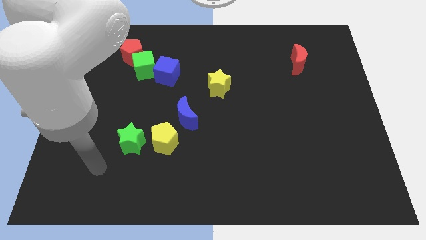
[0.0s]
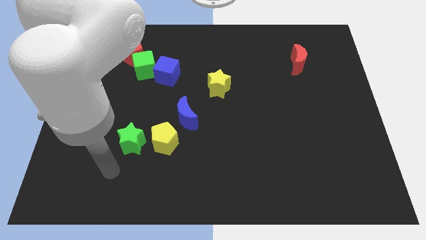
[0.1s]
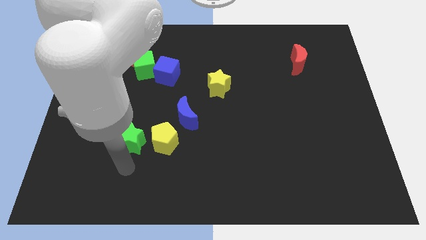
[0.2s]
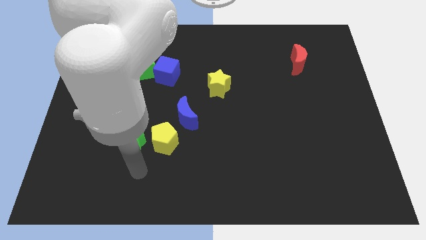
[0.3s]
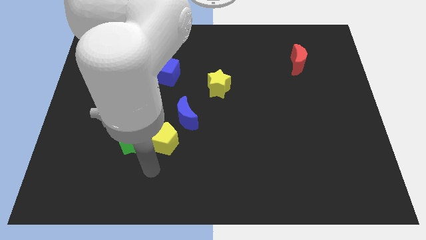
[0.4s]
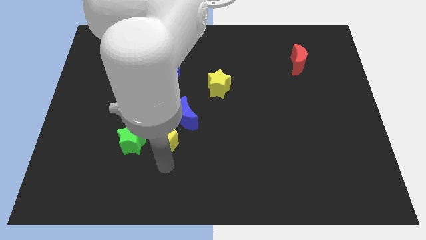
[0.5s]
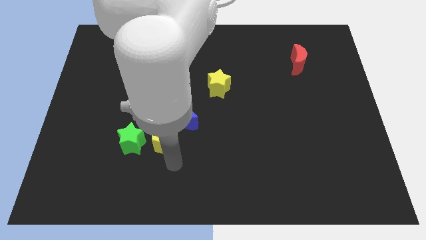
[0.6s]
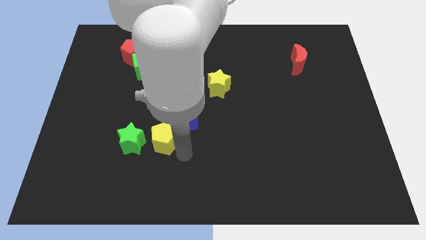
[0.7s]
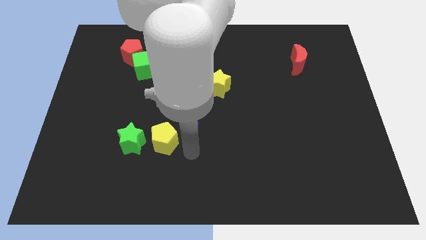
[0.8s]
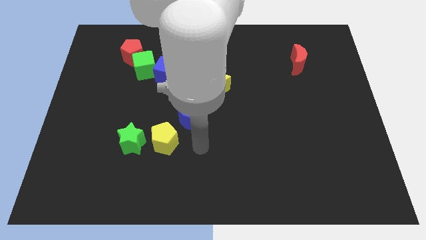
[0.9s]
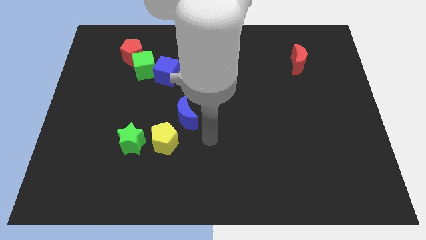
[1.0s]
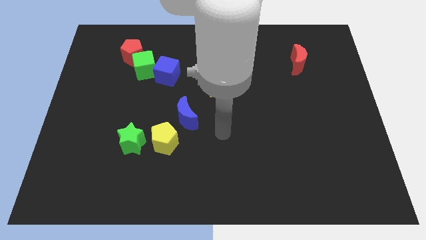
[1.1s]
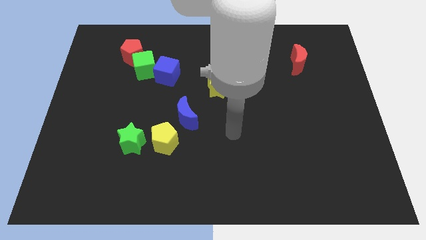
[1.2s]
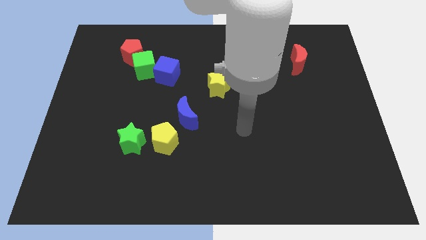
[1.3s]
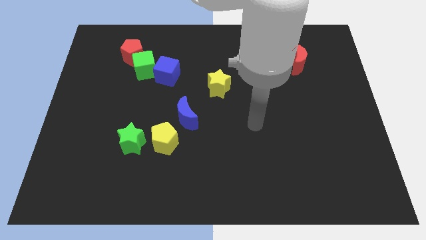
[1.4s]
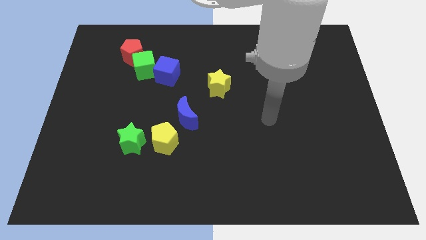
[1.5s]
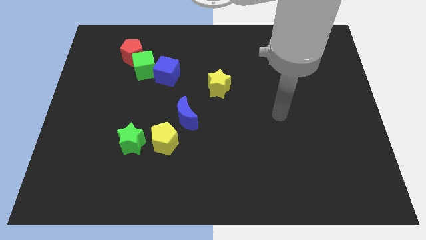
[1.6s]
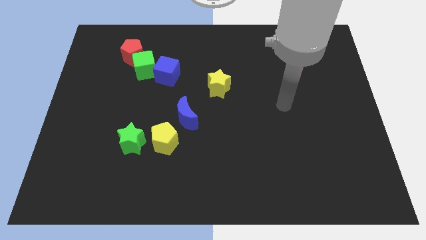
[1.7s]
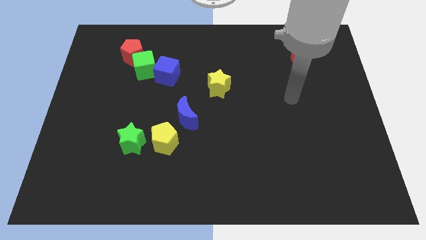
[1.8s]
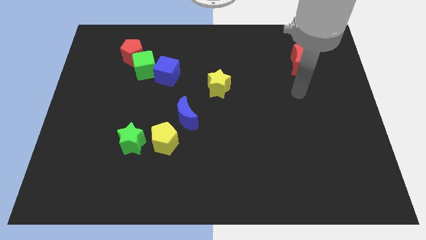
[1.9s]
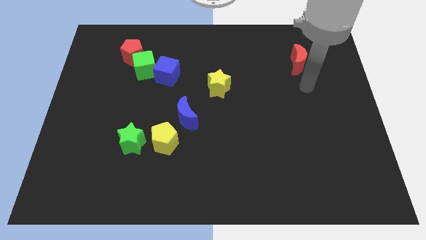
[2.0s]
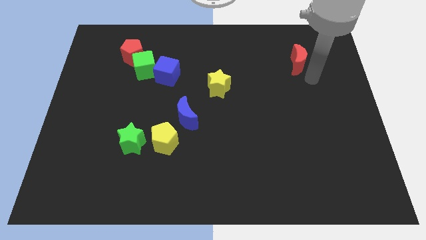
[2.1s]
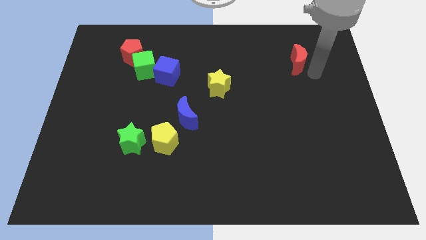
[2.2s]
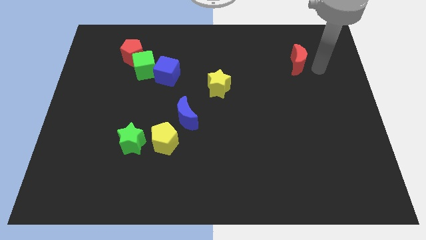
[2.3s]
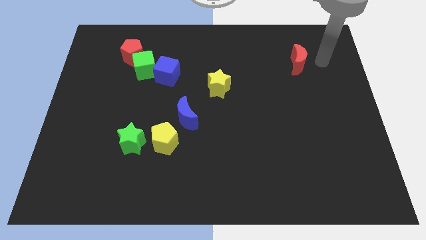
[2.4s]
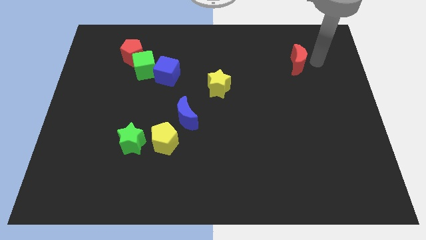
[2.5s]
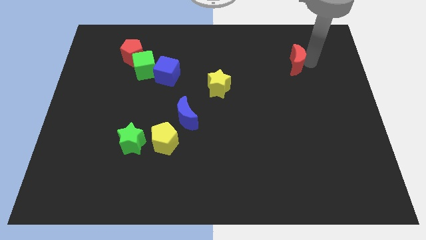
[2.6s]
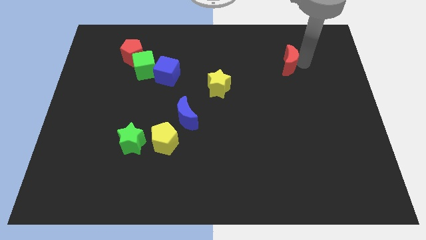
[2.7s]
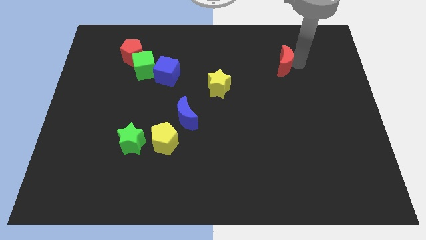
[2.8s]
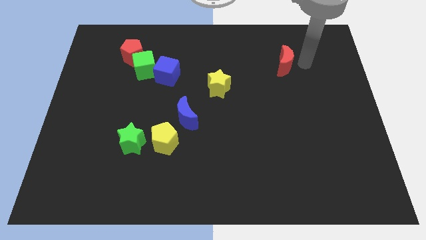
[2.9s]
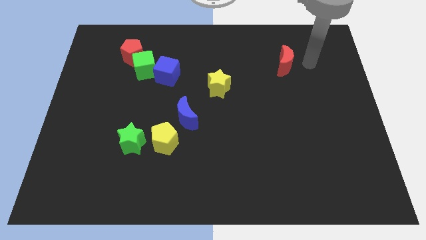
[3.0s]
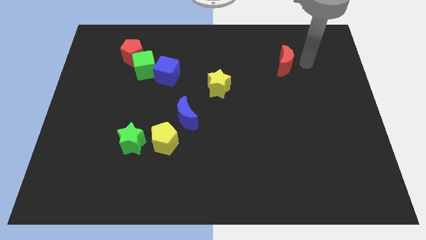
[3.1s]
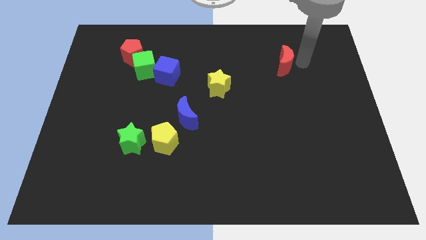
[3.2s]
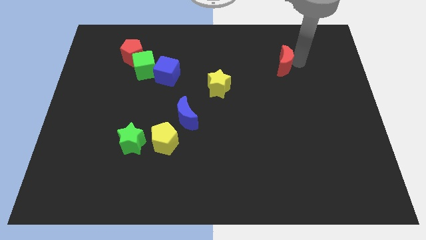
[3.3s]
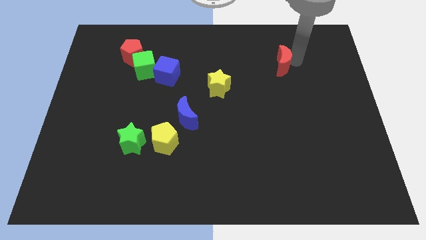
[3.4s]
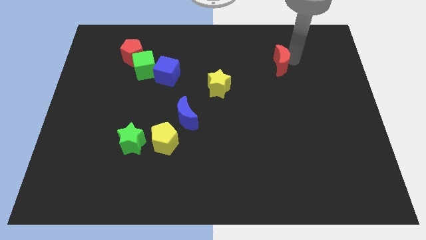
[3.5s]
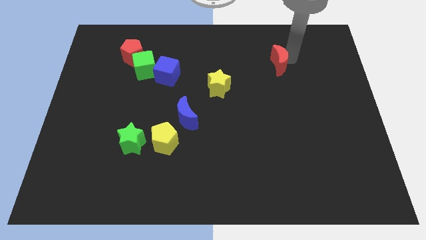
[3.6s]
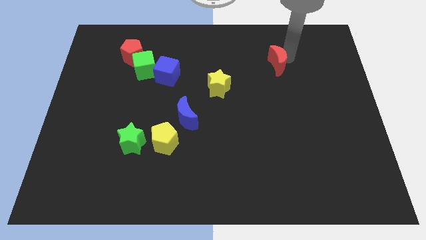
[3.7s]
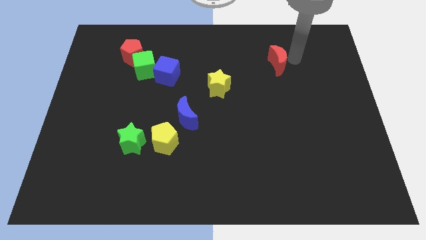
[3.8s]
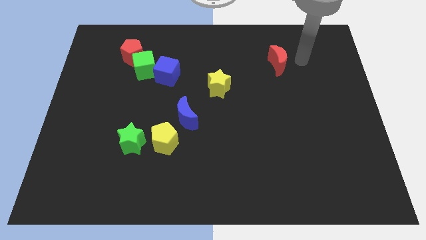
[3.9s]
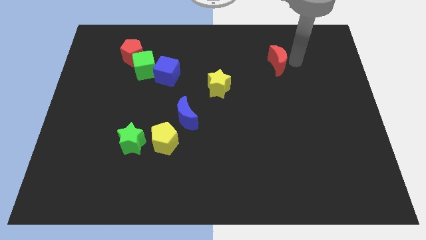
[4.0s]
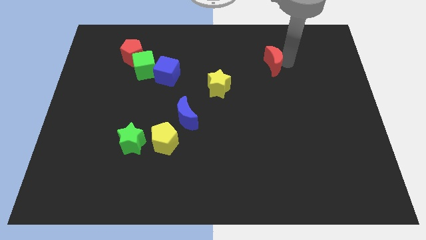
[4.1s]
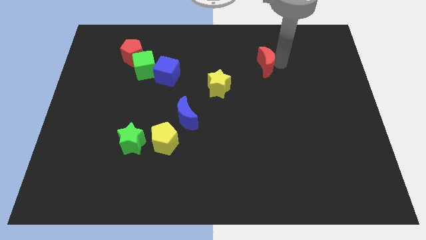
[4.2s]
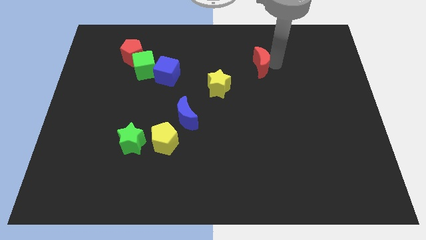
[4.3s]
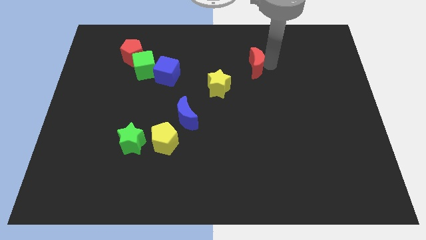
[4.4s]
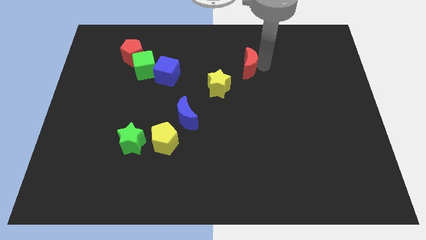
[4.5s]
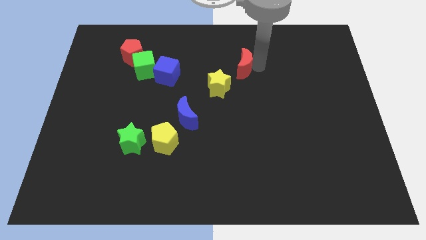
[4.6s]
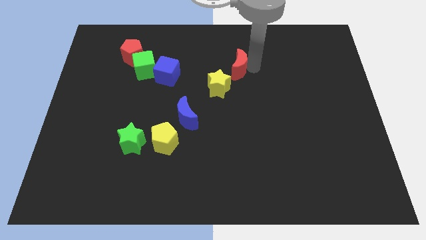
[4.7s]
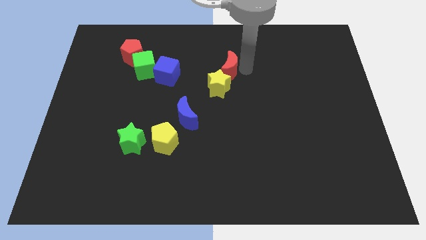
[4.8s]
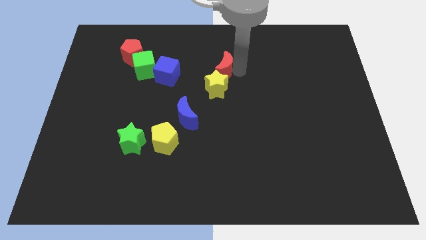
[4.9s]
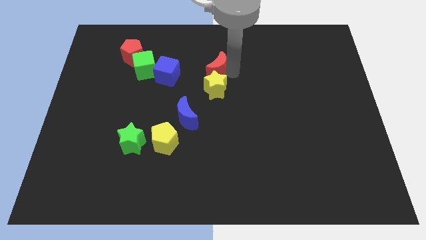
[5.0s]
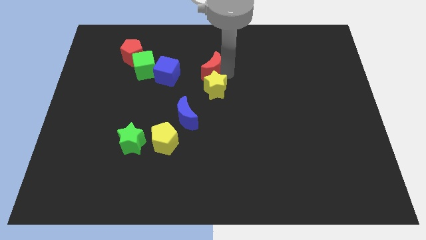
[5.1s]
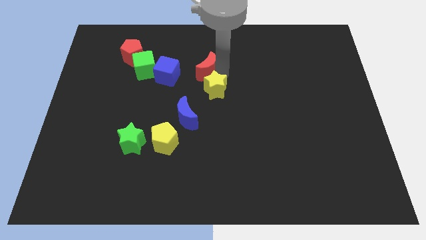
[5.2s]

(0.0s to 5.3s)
push the red moon just right of the green cube

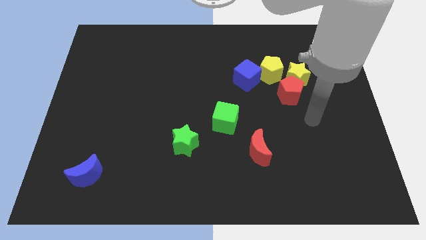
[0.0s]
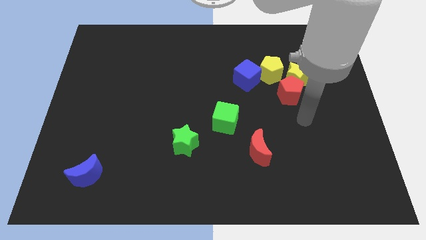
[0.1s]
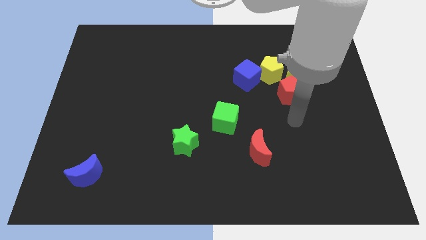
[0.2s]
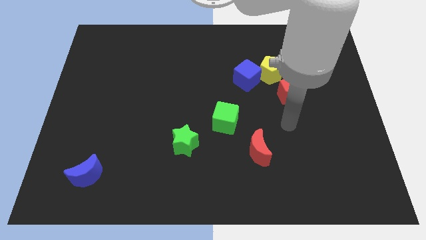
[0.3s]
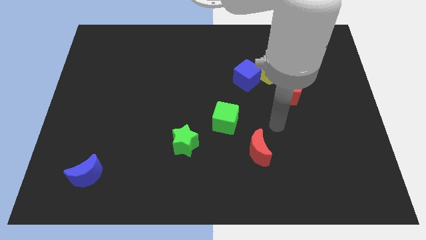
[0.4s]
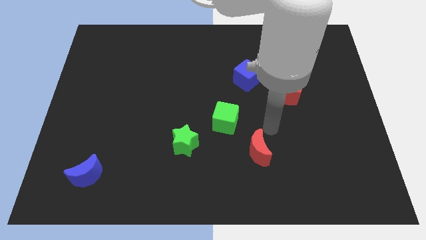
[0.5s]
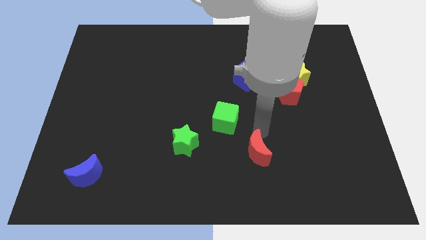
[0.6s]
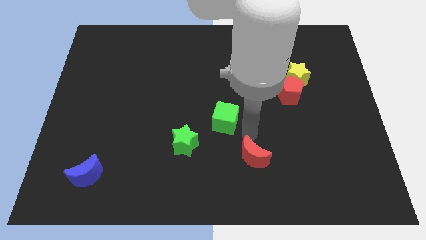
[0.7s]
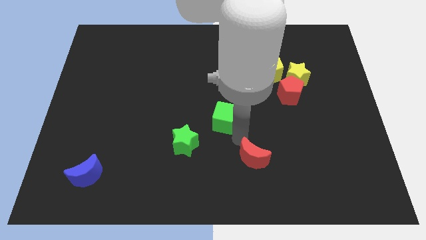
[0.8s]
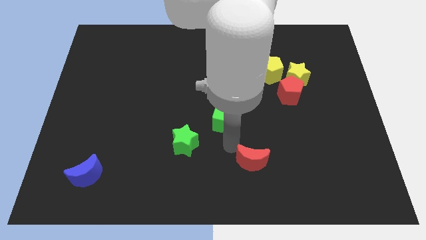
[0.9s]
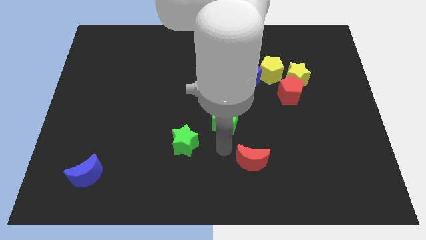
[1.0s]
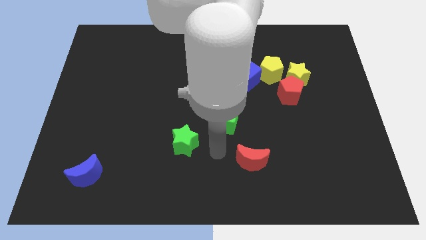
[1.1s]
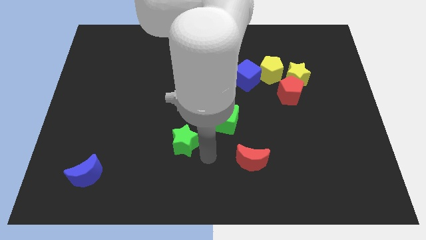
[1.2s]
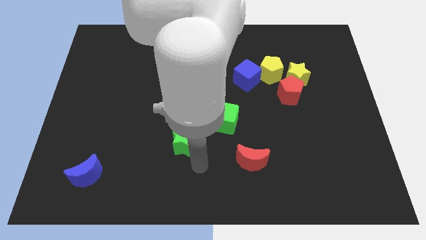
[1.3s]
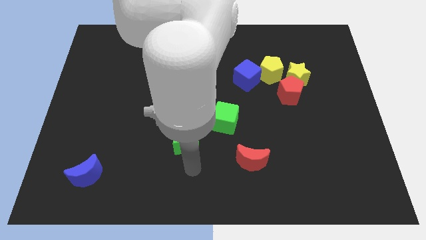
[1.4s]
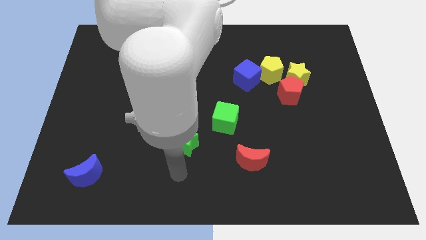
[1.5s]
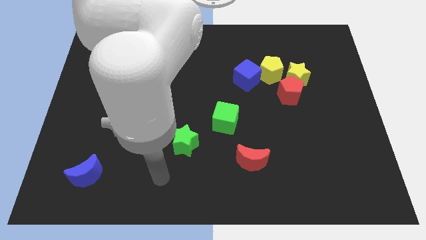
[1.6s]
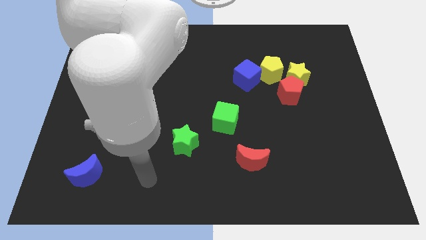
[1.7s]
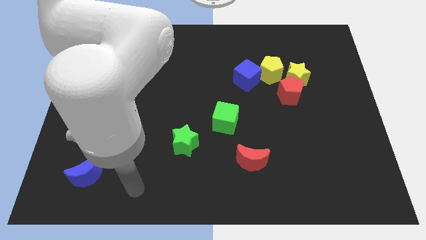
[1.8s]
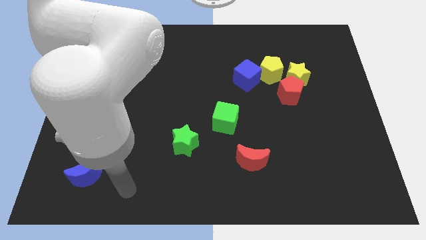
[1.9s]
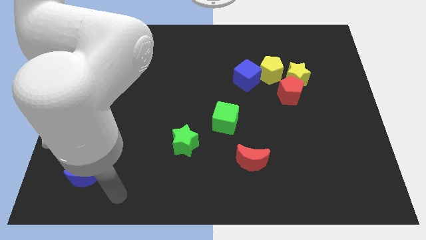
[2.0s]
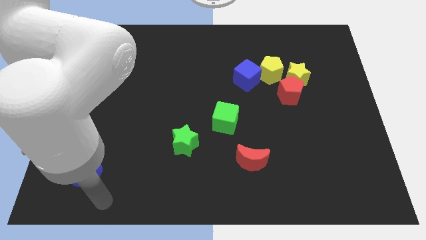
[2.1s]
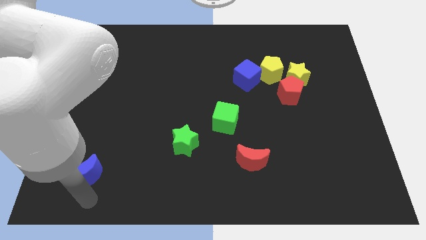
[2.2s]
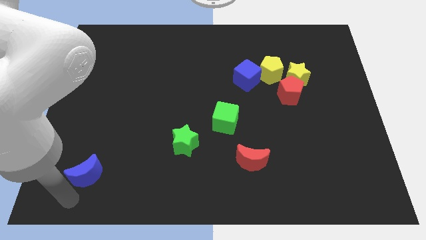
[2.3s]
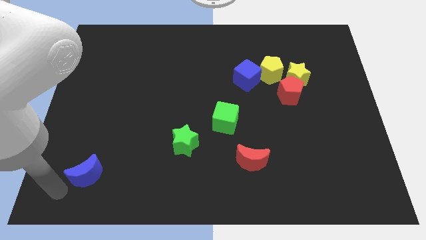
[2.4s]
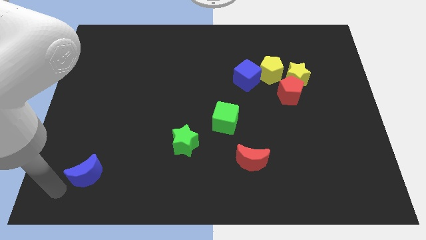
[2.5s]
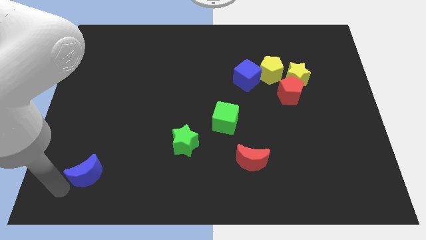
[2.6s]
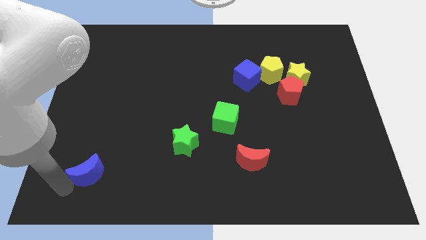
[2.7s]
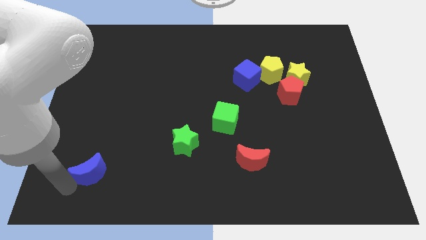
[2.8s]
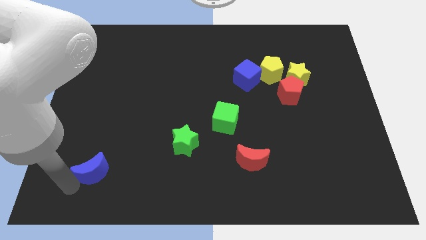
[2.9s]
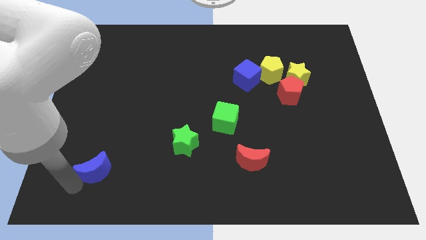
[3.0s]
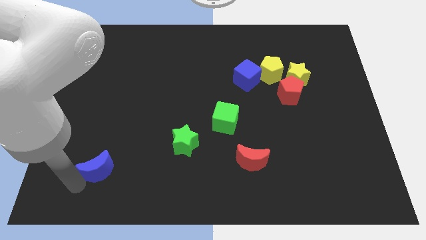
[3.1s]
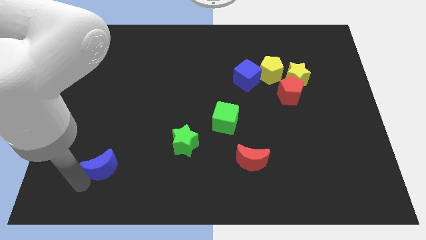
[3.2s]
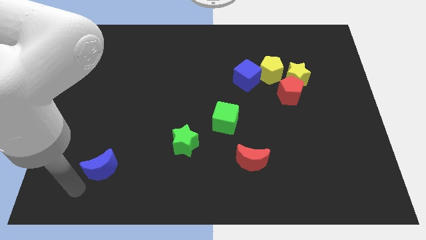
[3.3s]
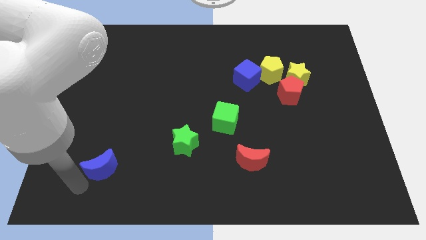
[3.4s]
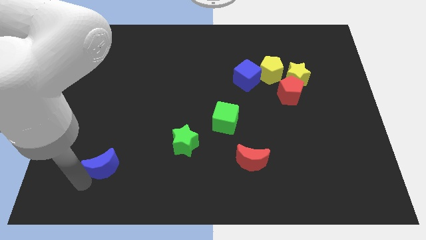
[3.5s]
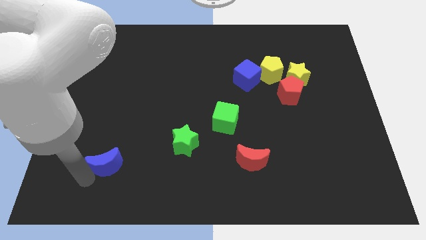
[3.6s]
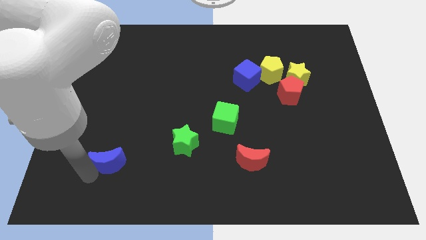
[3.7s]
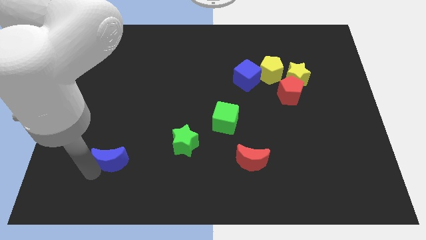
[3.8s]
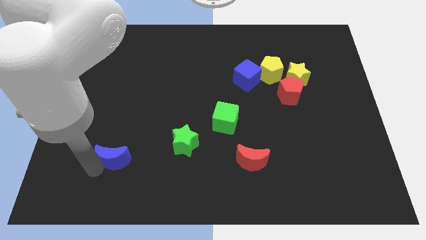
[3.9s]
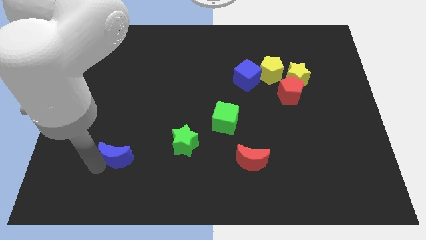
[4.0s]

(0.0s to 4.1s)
move the blue moon just left of the green star
